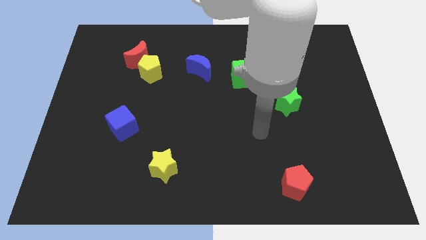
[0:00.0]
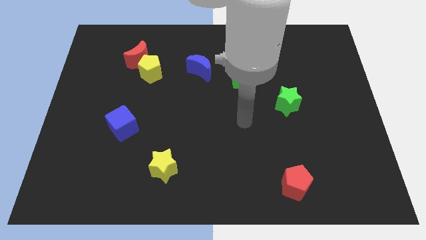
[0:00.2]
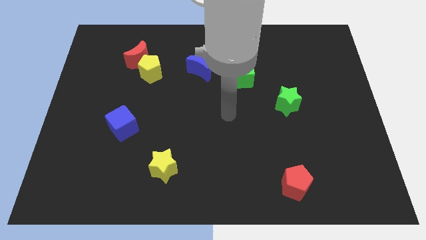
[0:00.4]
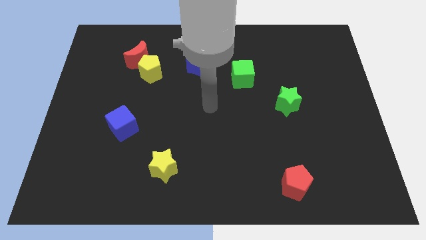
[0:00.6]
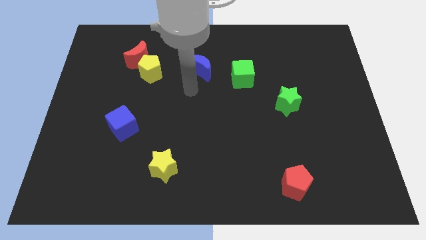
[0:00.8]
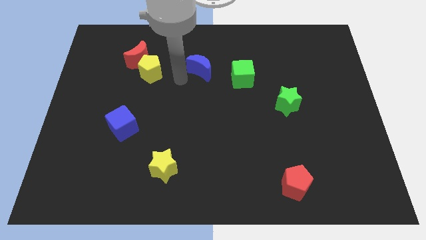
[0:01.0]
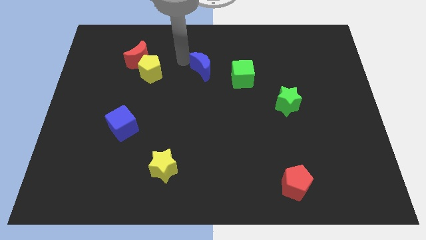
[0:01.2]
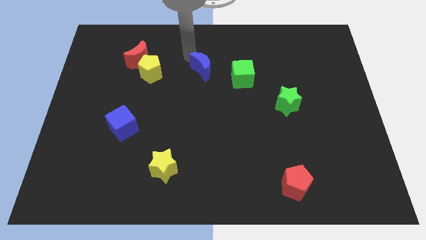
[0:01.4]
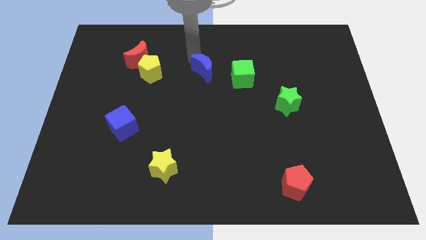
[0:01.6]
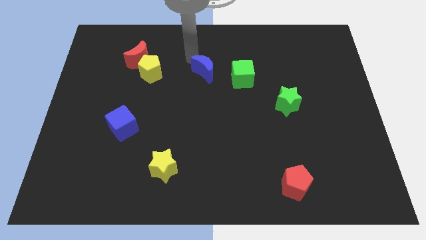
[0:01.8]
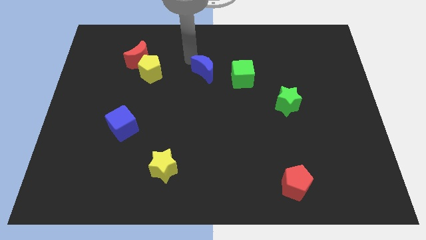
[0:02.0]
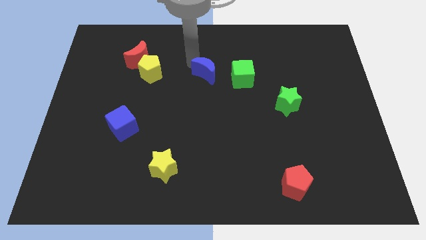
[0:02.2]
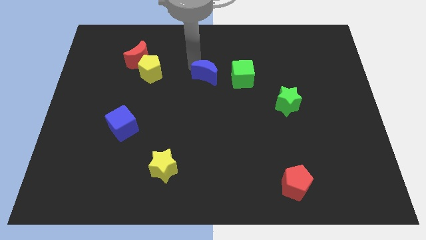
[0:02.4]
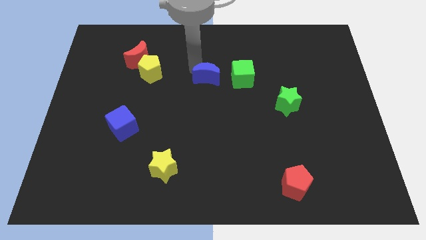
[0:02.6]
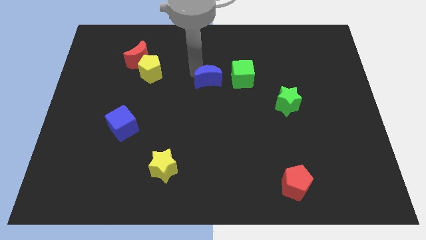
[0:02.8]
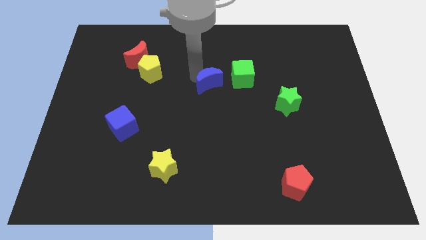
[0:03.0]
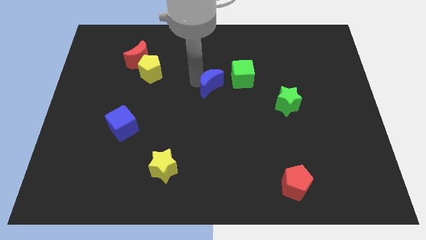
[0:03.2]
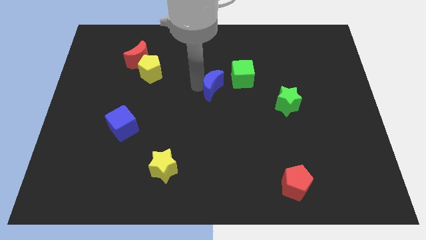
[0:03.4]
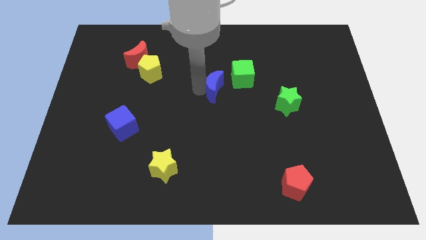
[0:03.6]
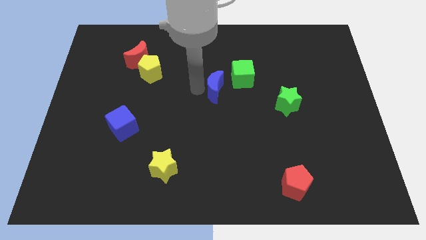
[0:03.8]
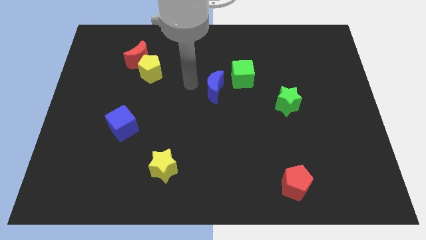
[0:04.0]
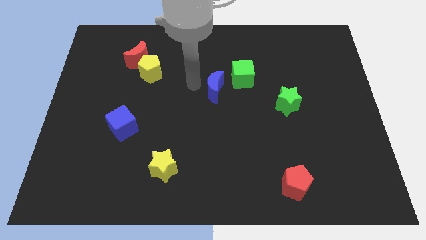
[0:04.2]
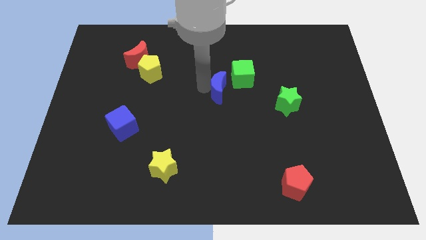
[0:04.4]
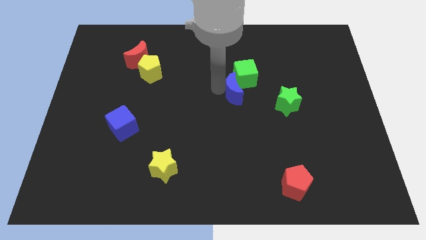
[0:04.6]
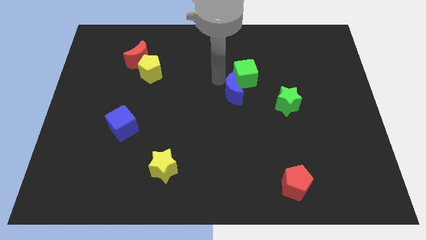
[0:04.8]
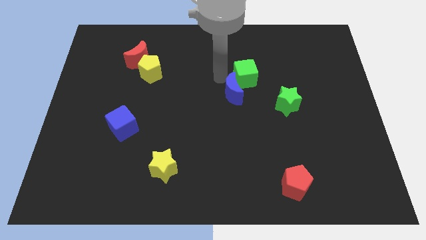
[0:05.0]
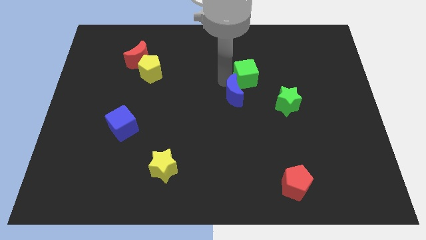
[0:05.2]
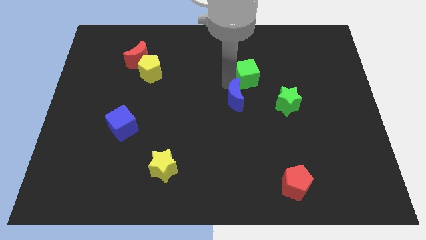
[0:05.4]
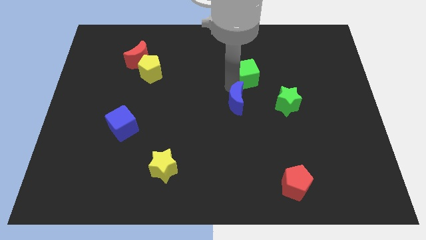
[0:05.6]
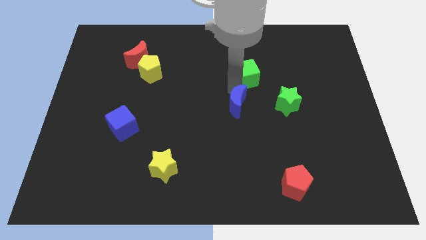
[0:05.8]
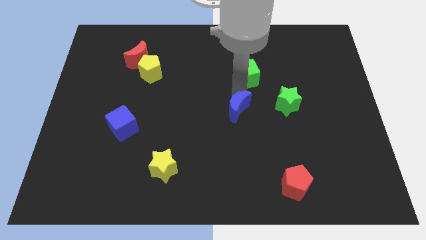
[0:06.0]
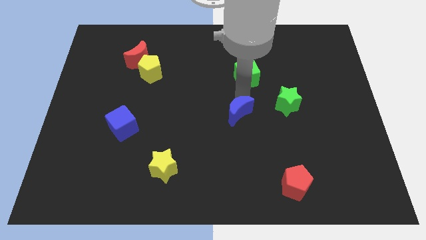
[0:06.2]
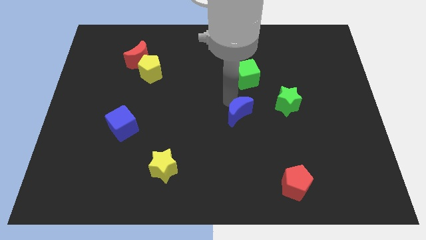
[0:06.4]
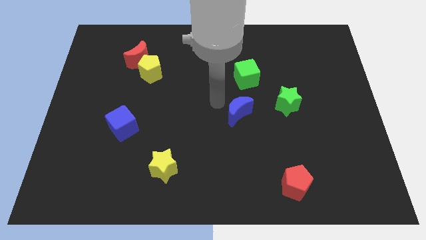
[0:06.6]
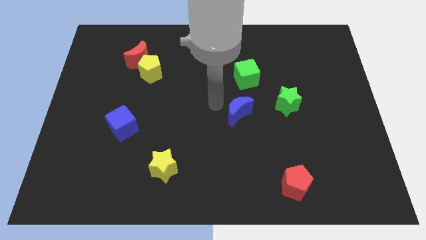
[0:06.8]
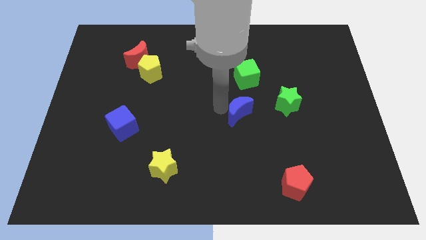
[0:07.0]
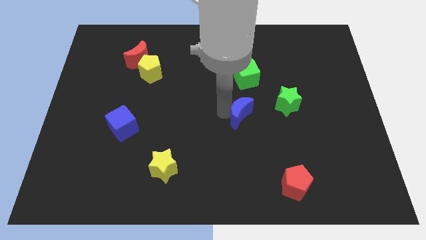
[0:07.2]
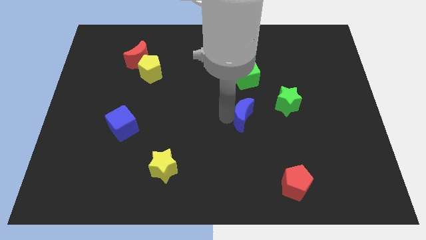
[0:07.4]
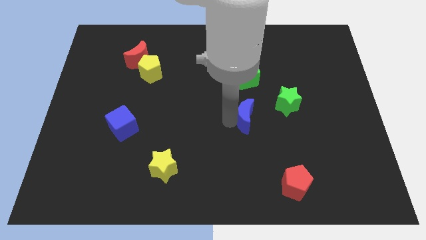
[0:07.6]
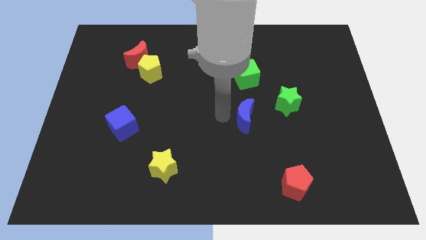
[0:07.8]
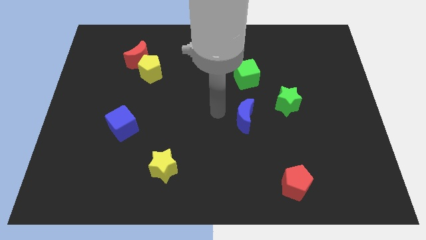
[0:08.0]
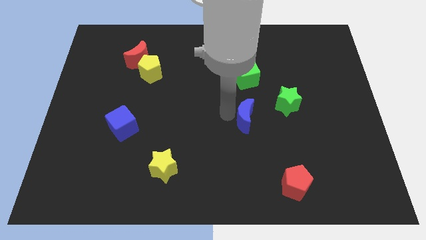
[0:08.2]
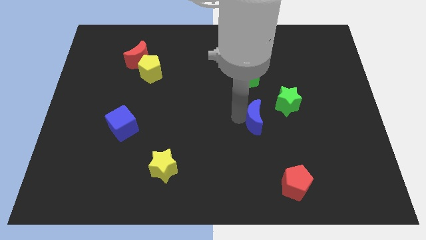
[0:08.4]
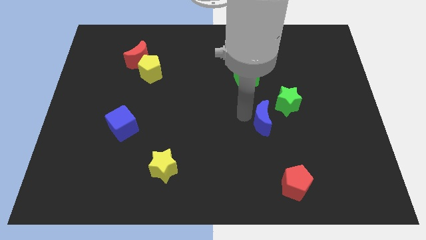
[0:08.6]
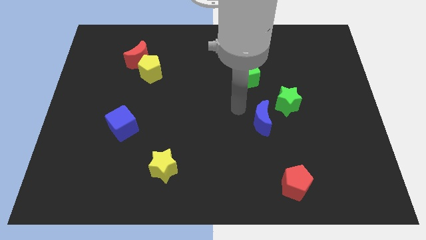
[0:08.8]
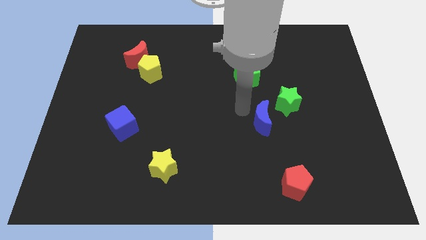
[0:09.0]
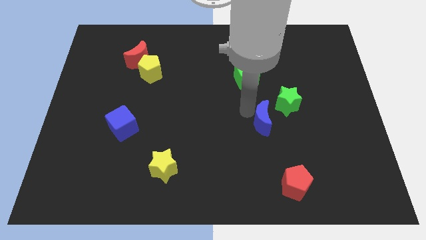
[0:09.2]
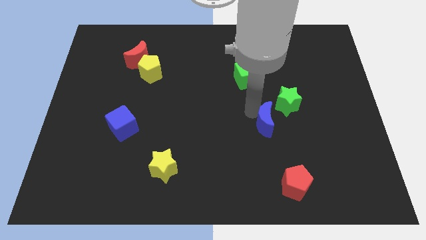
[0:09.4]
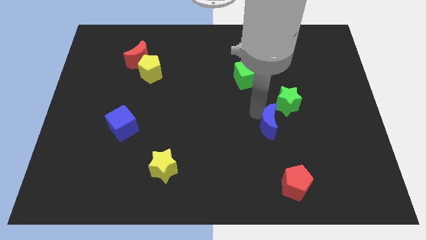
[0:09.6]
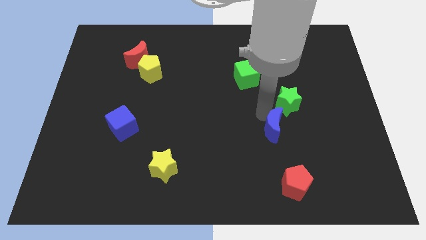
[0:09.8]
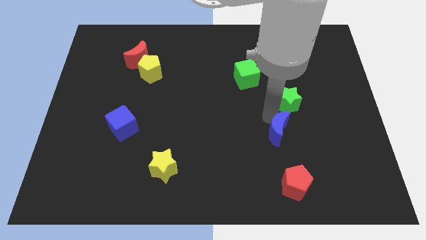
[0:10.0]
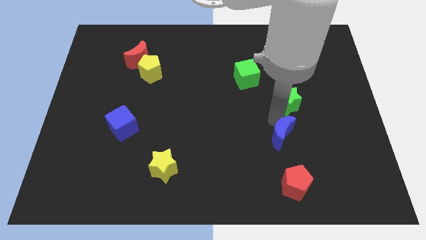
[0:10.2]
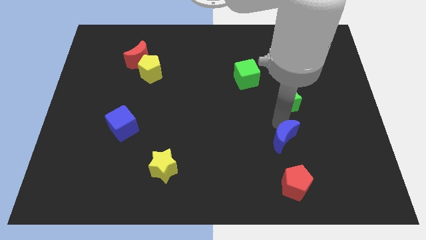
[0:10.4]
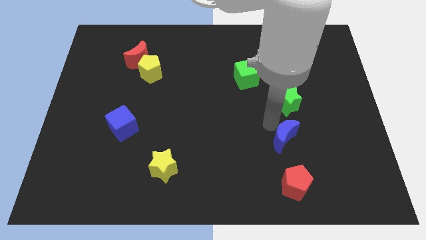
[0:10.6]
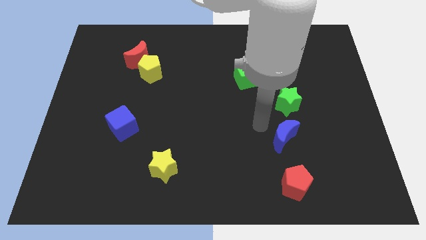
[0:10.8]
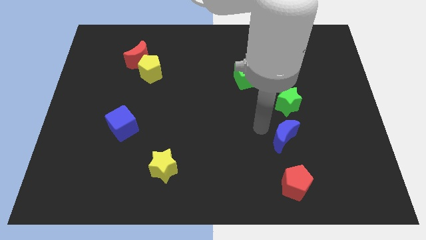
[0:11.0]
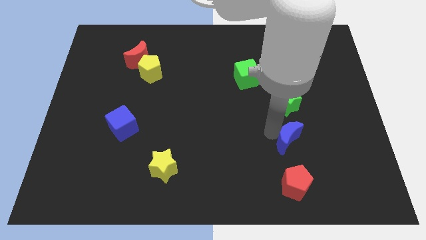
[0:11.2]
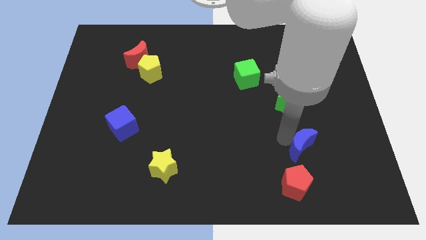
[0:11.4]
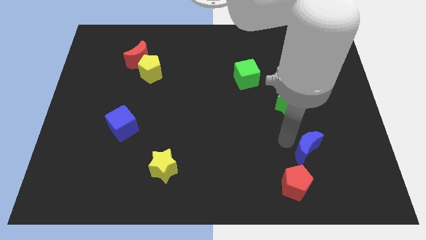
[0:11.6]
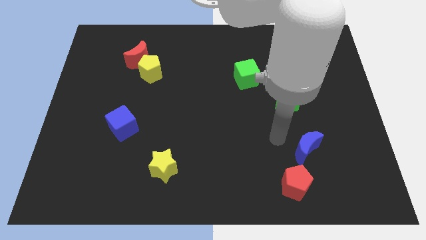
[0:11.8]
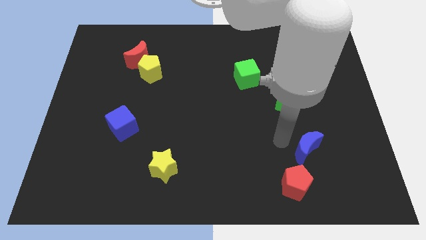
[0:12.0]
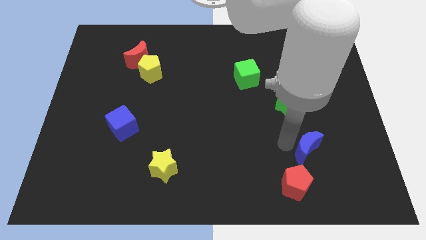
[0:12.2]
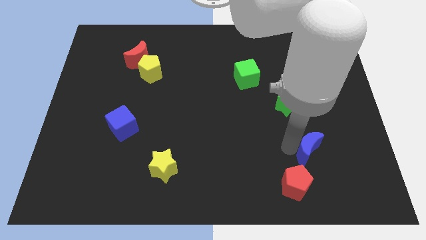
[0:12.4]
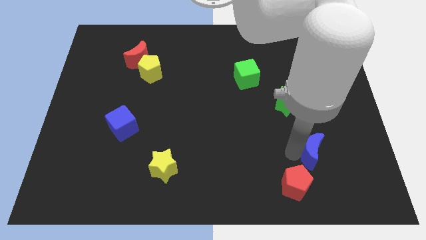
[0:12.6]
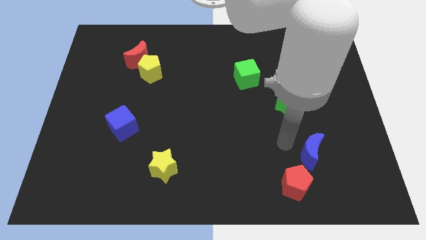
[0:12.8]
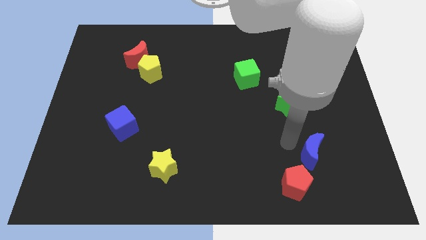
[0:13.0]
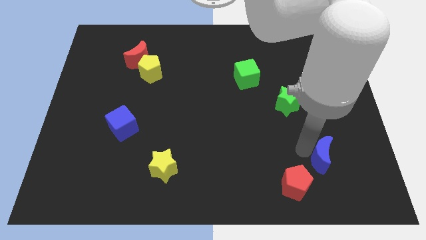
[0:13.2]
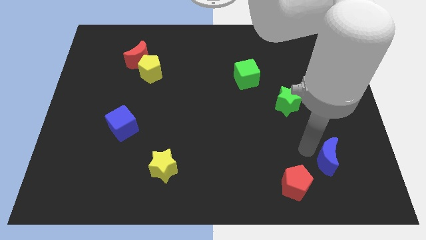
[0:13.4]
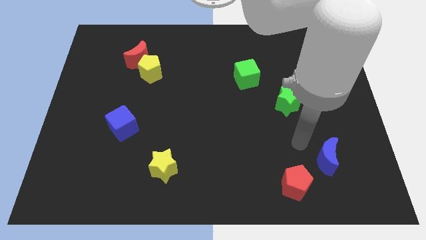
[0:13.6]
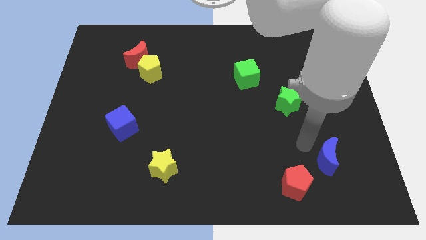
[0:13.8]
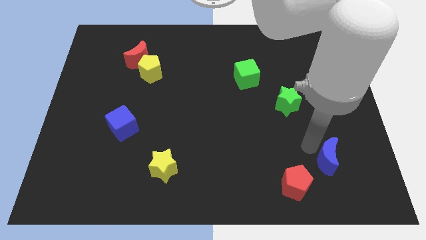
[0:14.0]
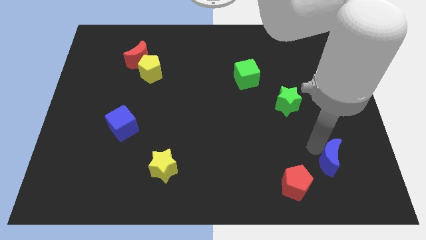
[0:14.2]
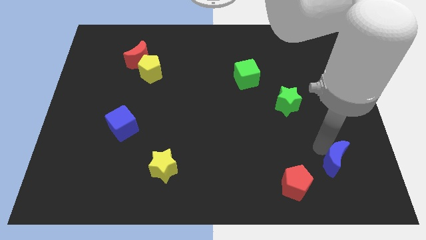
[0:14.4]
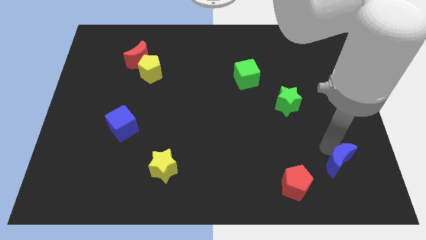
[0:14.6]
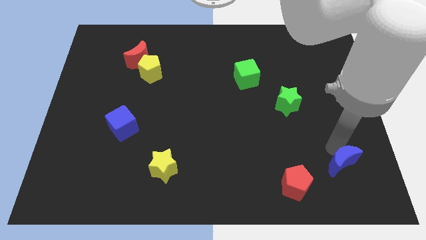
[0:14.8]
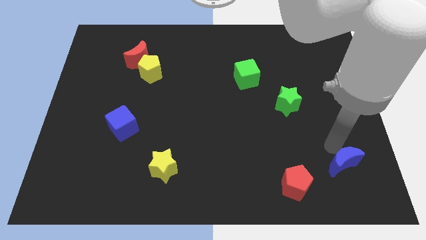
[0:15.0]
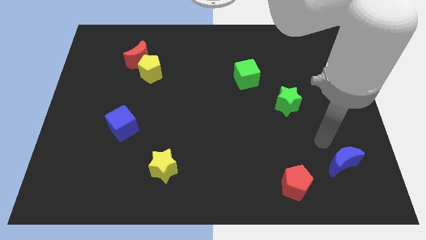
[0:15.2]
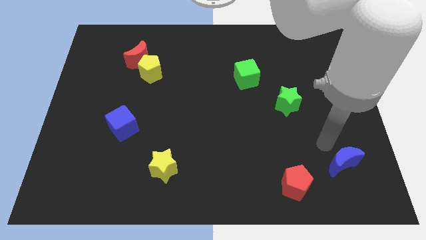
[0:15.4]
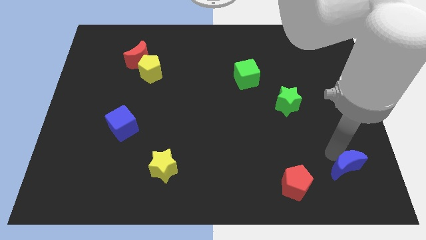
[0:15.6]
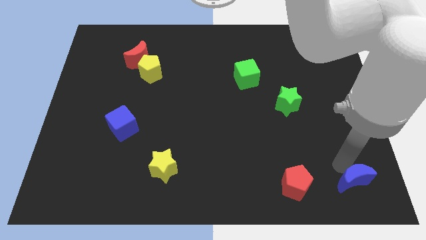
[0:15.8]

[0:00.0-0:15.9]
move the blue moon to the bottom right of the board
